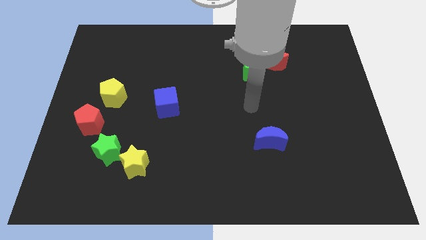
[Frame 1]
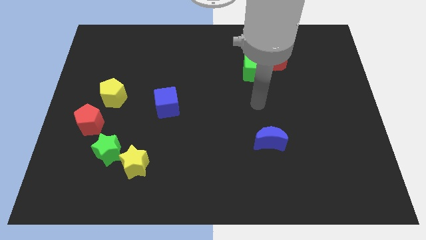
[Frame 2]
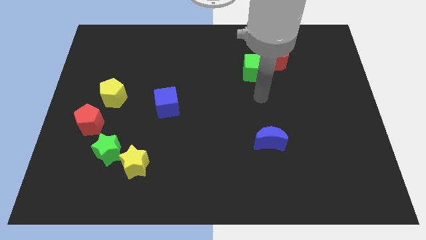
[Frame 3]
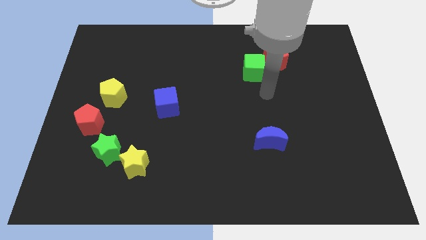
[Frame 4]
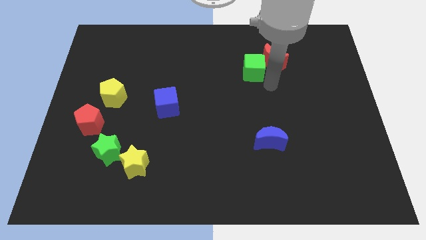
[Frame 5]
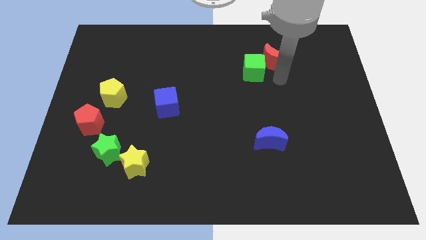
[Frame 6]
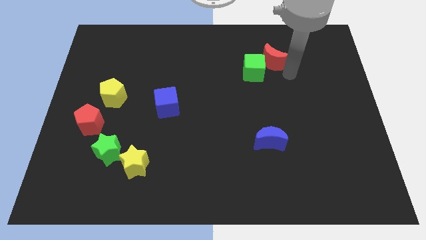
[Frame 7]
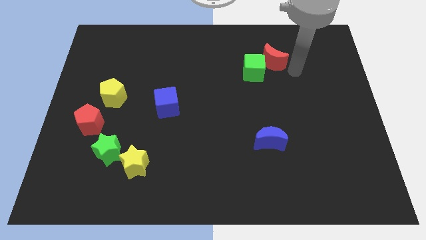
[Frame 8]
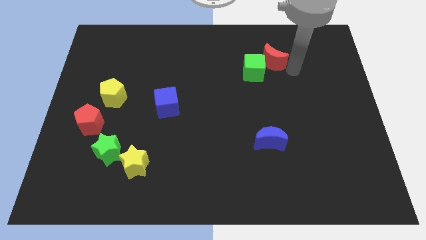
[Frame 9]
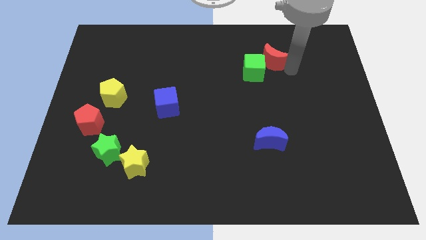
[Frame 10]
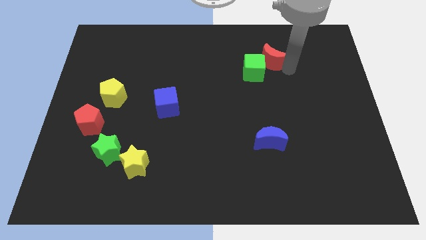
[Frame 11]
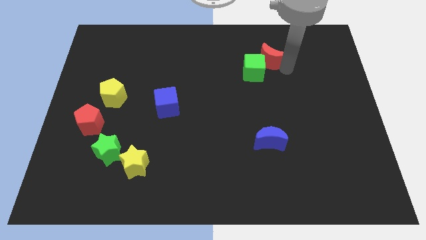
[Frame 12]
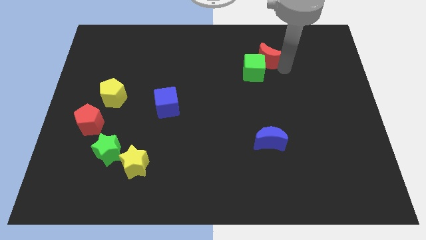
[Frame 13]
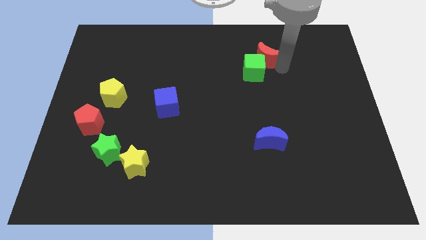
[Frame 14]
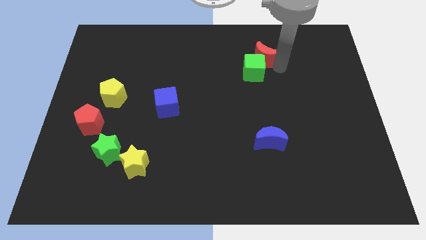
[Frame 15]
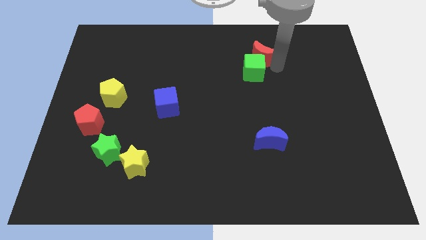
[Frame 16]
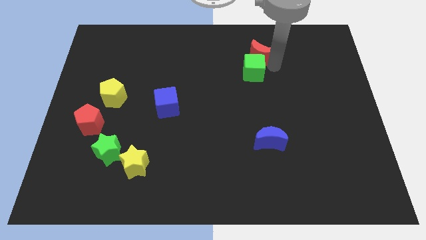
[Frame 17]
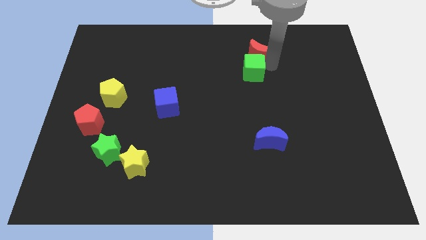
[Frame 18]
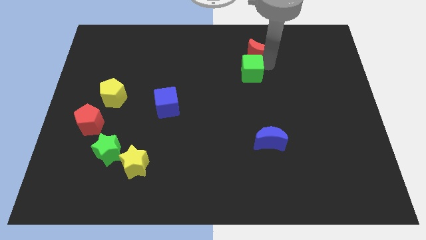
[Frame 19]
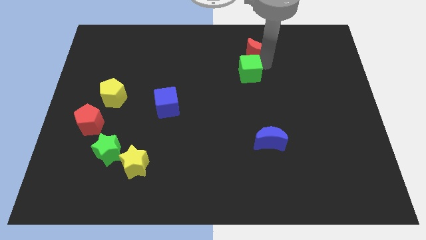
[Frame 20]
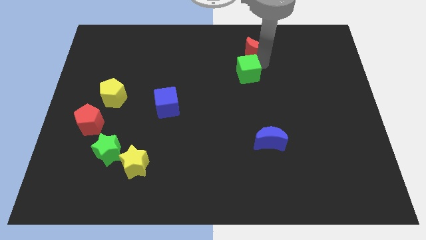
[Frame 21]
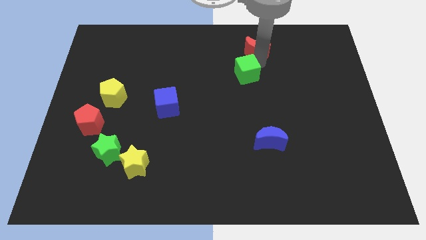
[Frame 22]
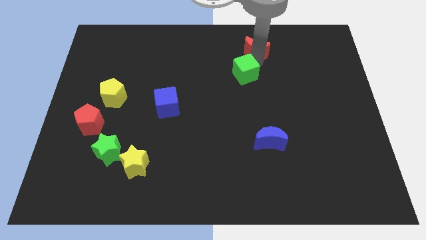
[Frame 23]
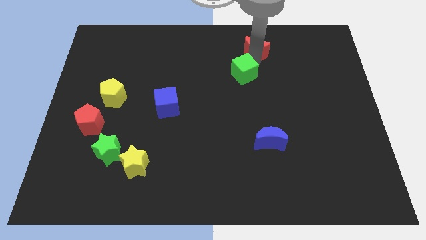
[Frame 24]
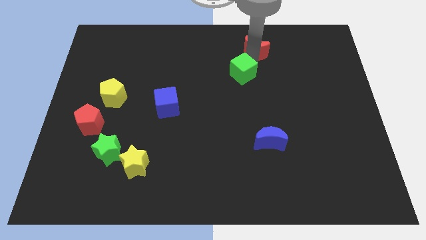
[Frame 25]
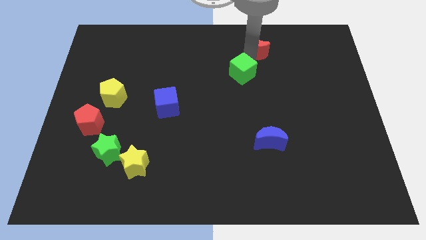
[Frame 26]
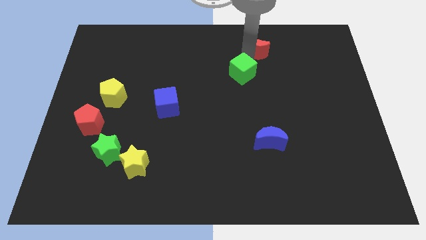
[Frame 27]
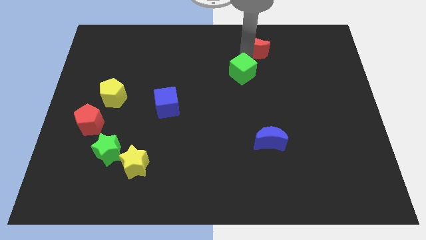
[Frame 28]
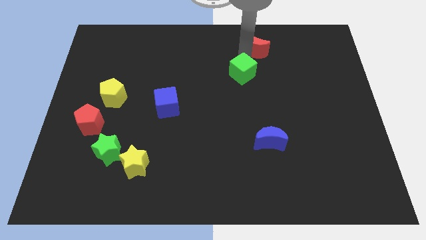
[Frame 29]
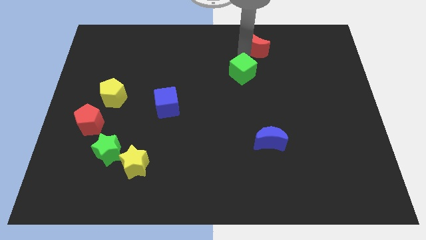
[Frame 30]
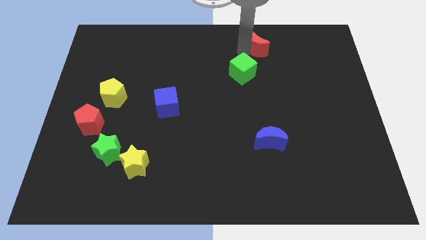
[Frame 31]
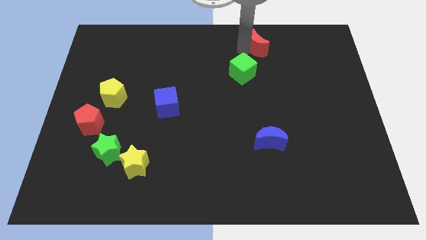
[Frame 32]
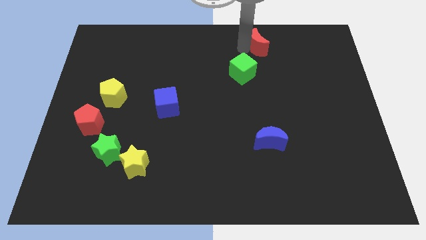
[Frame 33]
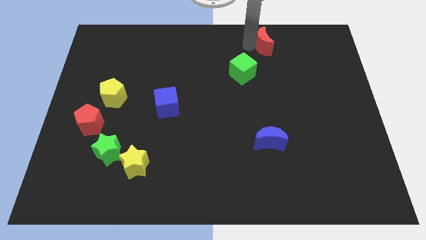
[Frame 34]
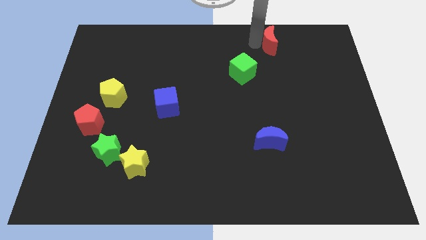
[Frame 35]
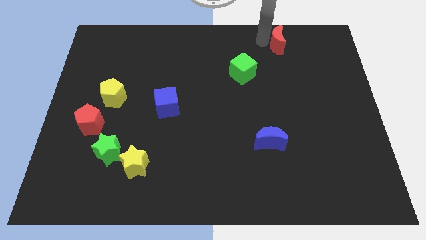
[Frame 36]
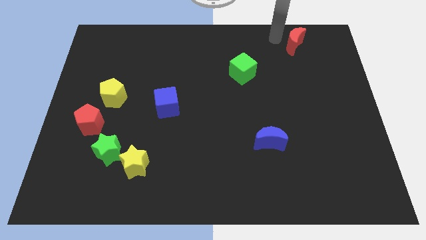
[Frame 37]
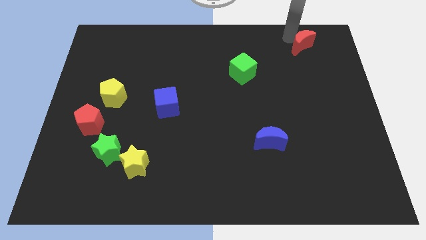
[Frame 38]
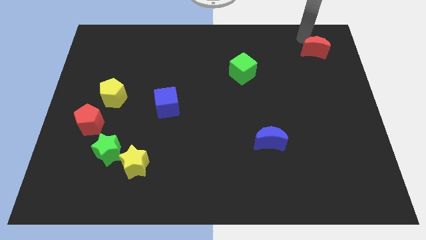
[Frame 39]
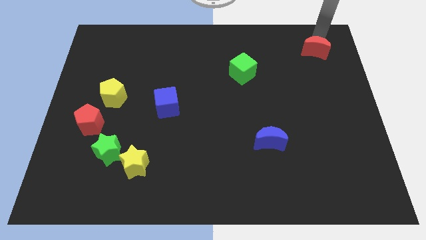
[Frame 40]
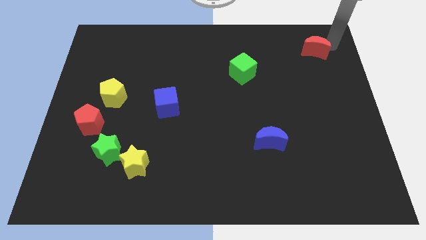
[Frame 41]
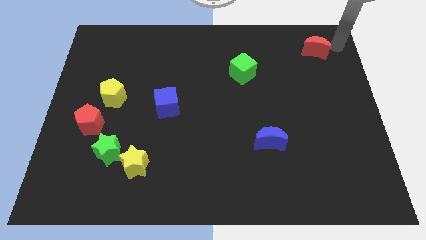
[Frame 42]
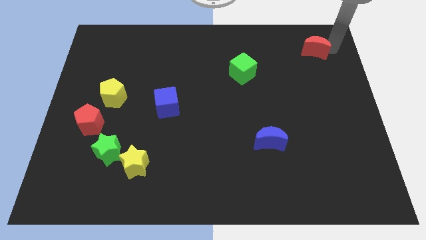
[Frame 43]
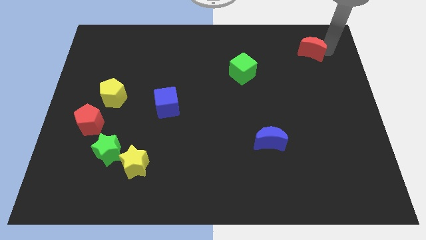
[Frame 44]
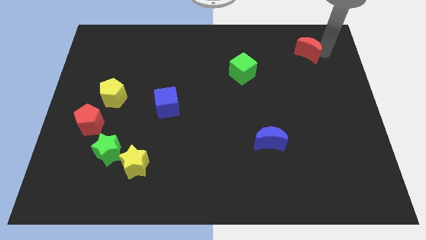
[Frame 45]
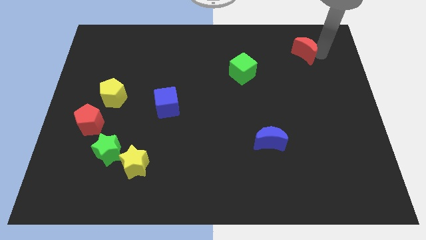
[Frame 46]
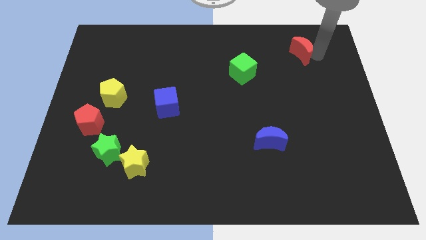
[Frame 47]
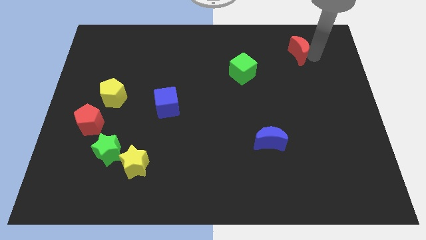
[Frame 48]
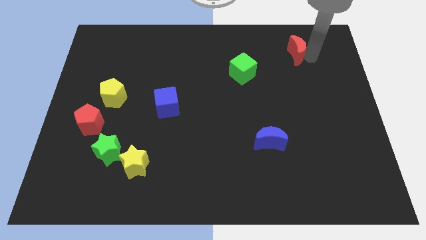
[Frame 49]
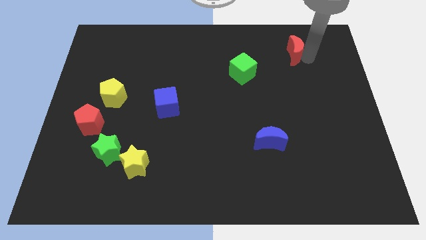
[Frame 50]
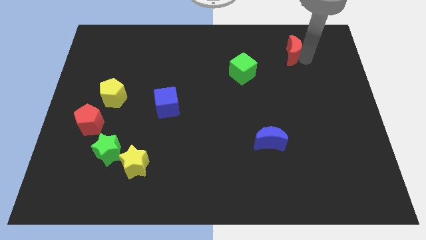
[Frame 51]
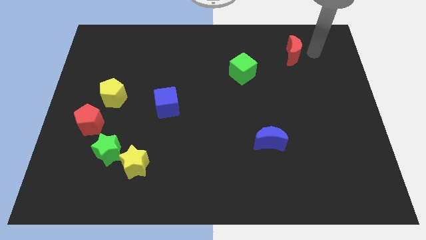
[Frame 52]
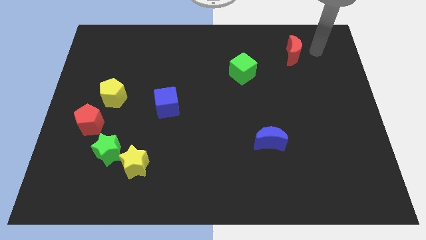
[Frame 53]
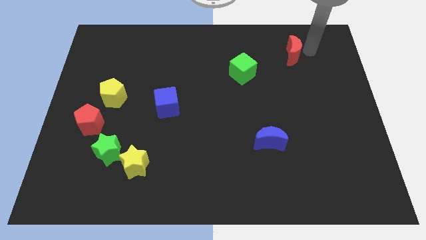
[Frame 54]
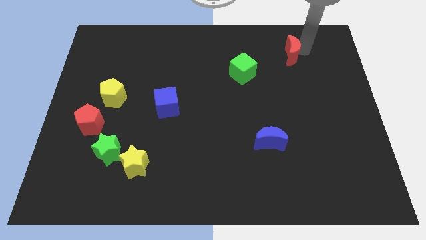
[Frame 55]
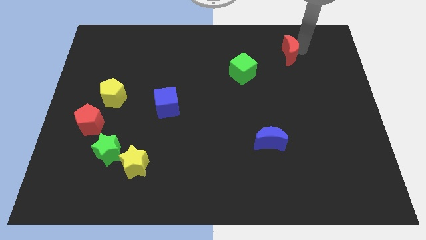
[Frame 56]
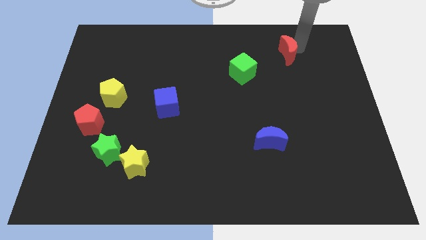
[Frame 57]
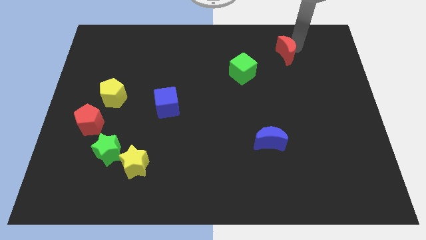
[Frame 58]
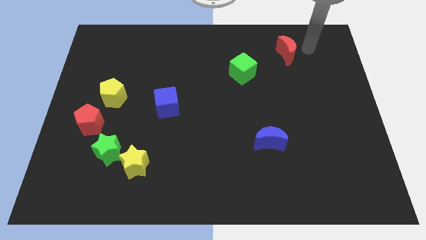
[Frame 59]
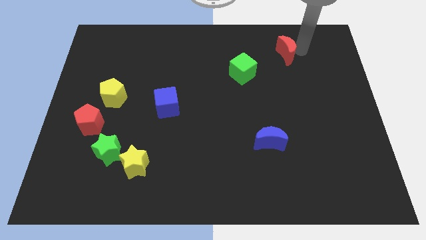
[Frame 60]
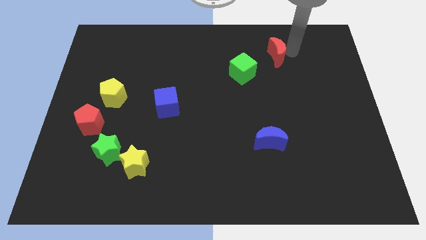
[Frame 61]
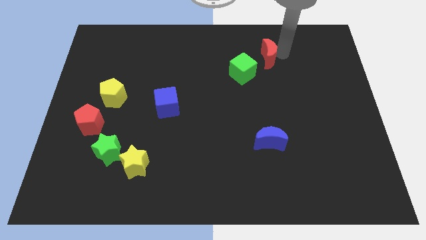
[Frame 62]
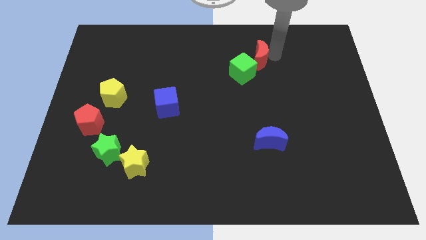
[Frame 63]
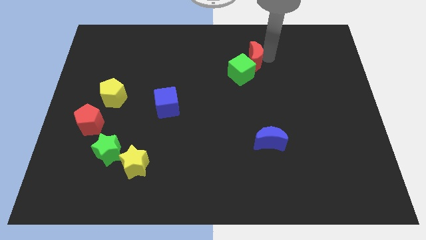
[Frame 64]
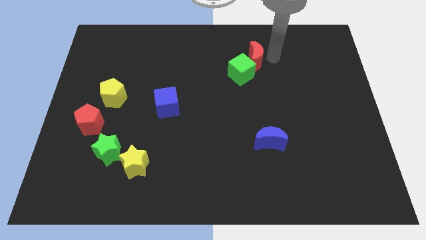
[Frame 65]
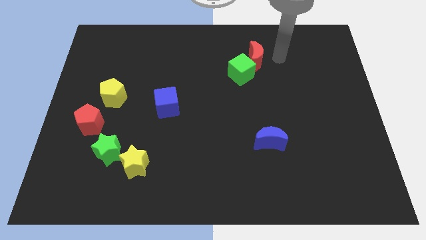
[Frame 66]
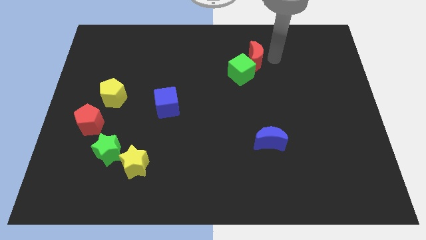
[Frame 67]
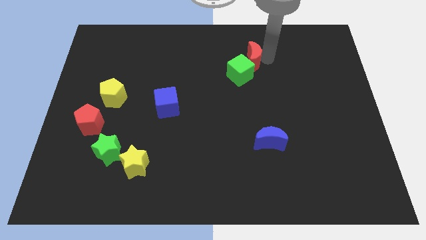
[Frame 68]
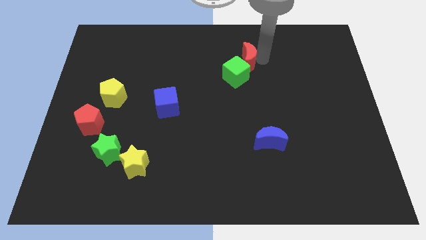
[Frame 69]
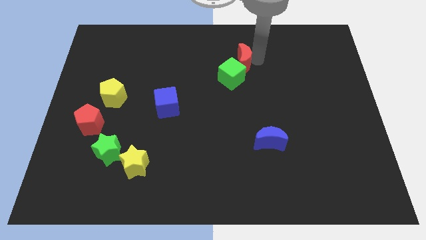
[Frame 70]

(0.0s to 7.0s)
move the red moon left a little bit

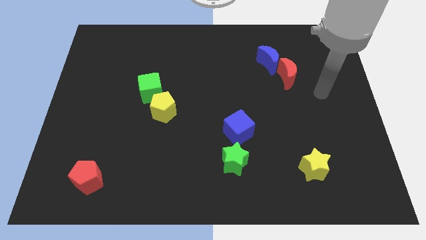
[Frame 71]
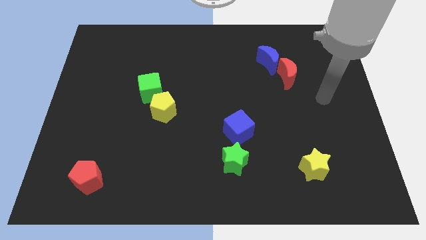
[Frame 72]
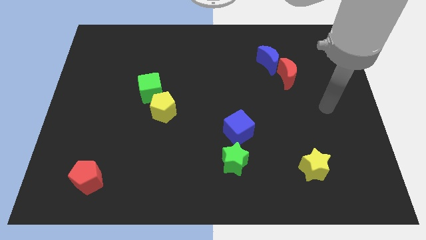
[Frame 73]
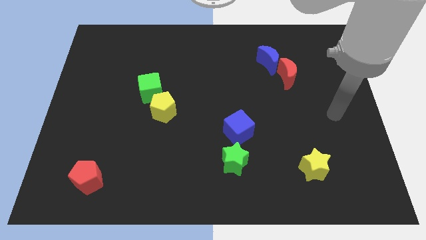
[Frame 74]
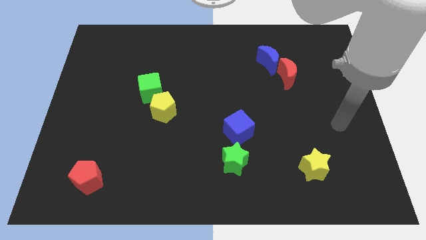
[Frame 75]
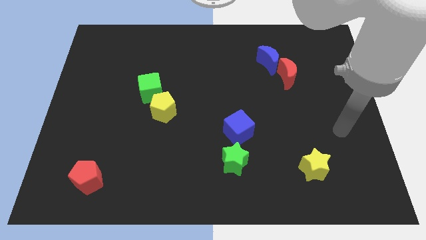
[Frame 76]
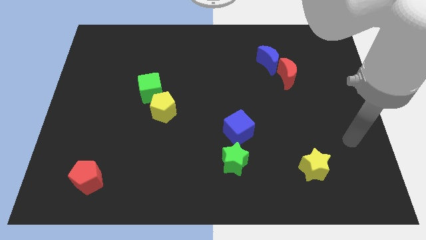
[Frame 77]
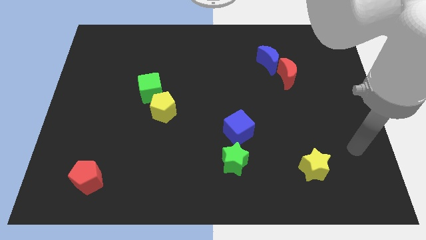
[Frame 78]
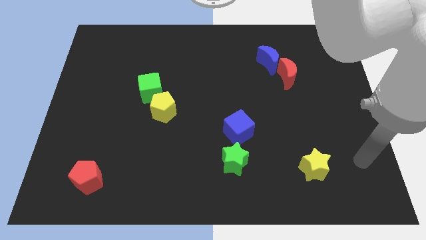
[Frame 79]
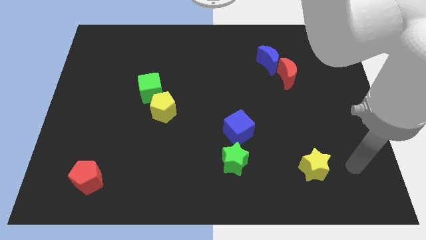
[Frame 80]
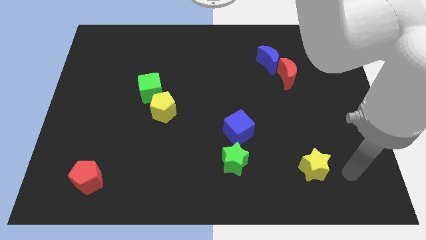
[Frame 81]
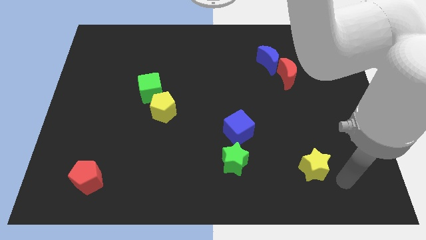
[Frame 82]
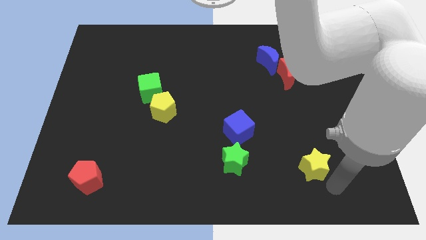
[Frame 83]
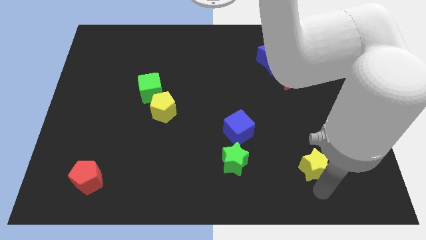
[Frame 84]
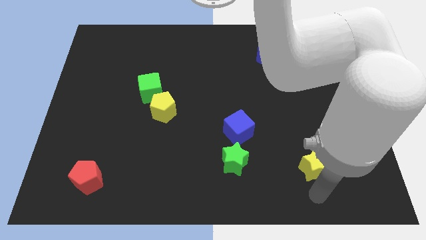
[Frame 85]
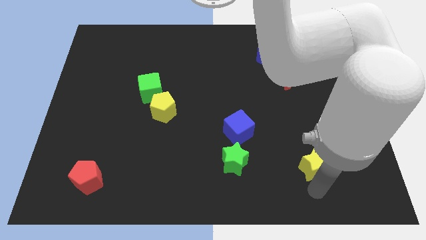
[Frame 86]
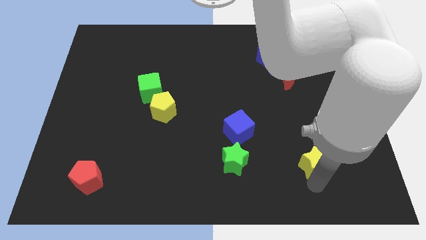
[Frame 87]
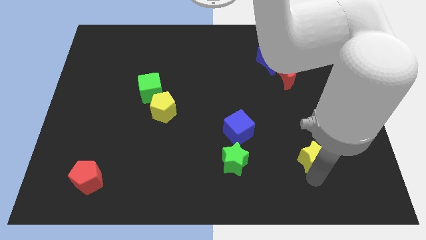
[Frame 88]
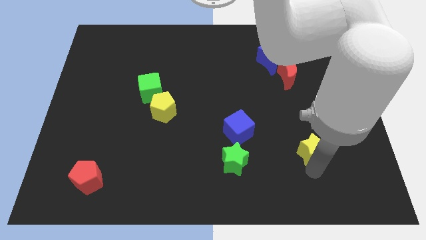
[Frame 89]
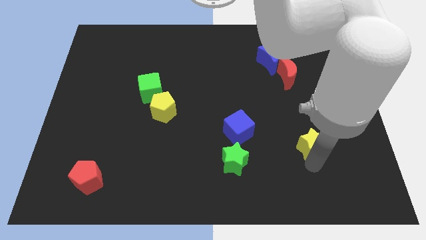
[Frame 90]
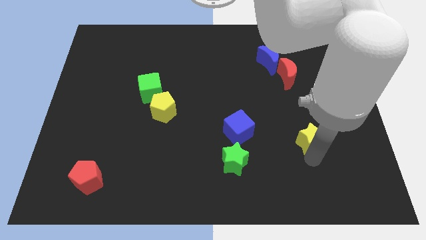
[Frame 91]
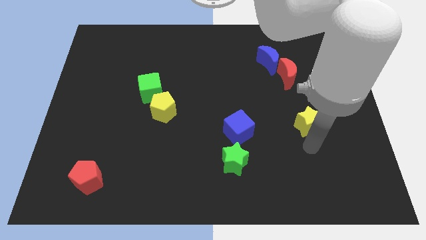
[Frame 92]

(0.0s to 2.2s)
slightly slide the yellow star upwards
